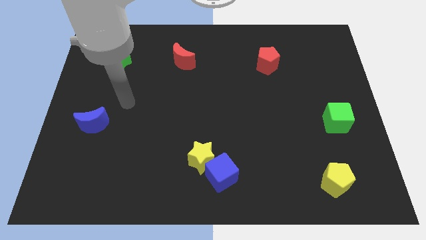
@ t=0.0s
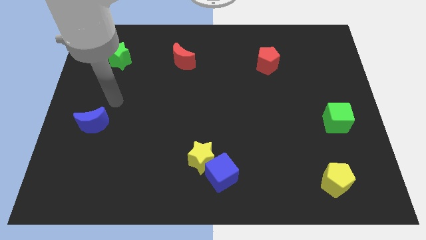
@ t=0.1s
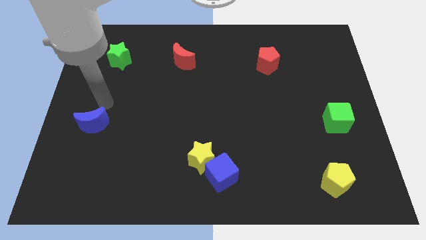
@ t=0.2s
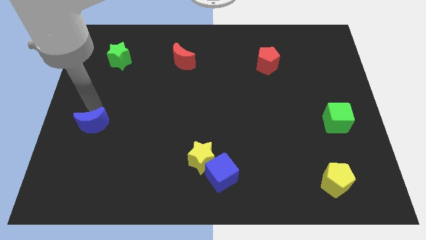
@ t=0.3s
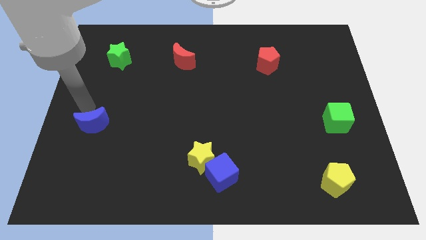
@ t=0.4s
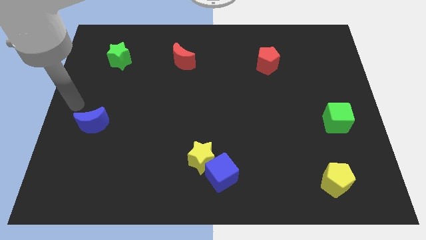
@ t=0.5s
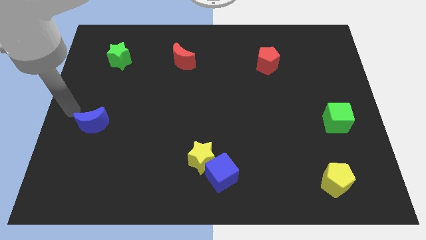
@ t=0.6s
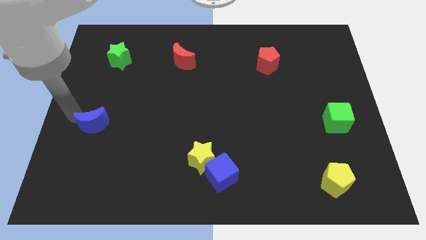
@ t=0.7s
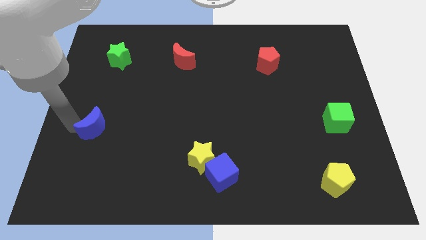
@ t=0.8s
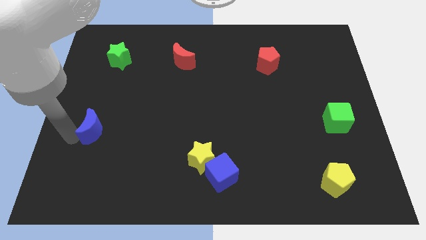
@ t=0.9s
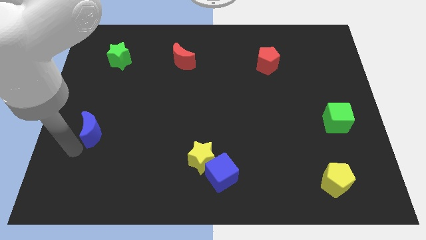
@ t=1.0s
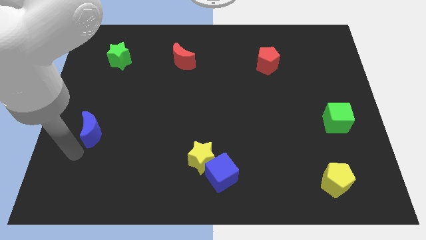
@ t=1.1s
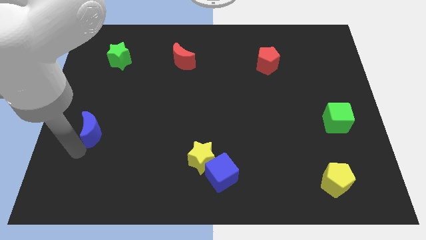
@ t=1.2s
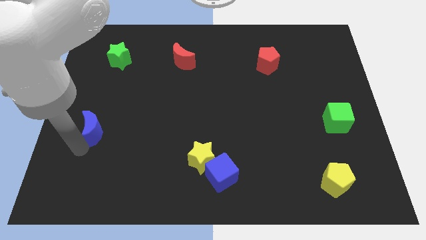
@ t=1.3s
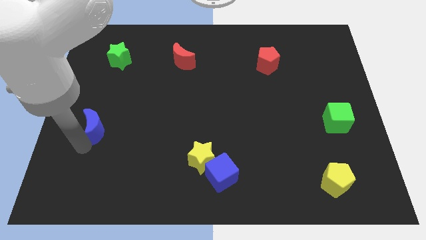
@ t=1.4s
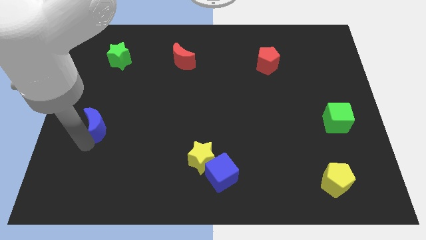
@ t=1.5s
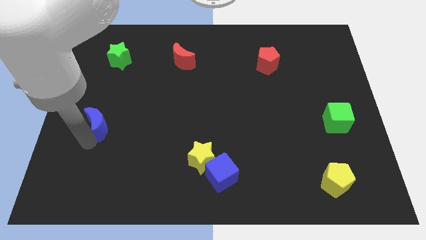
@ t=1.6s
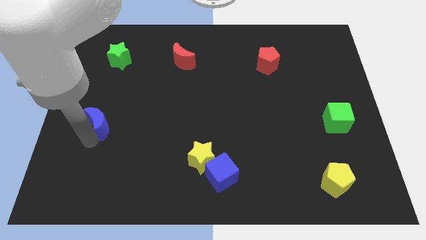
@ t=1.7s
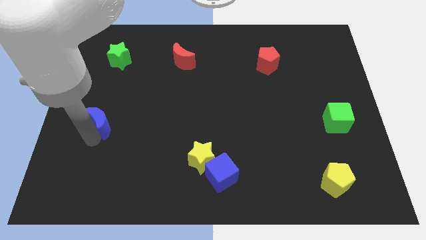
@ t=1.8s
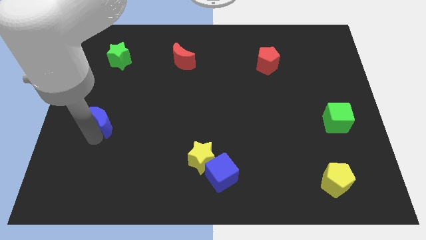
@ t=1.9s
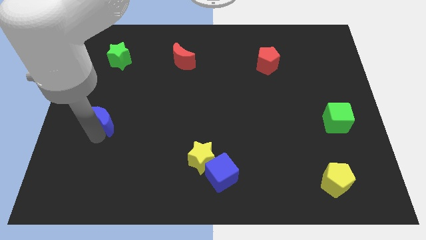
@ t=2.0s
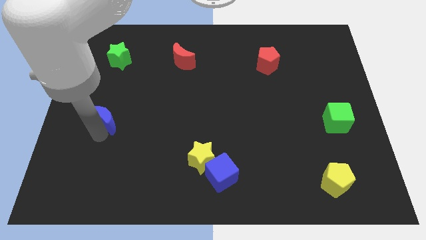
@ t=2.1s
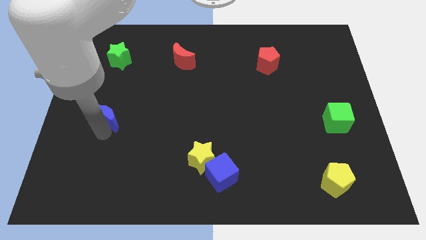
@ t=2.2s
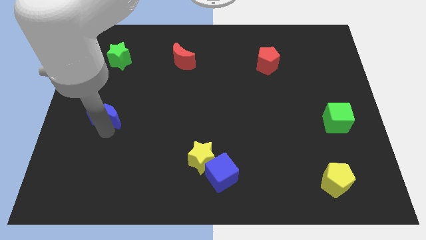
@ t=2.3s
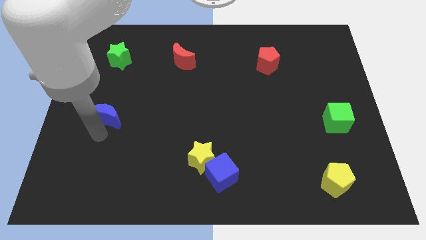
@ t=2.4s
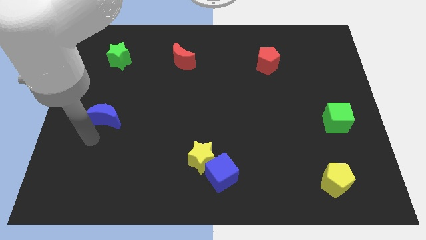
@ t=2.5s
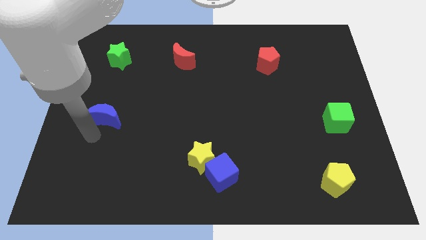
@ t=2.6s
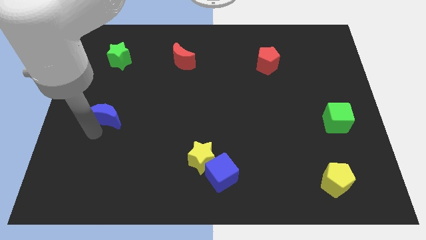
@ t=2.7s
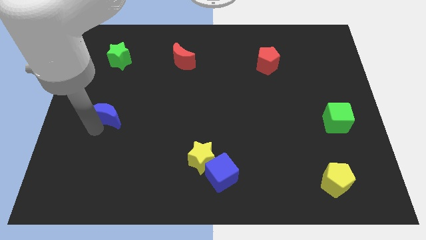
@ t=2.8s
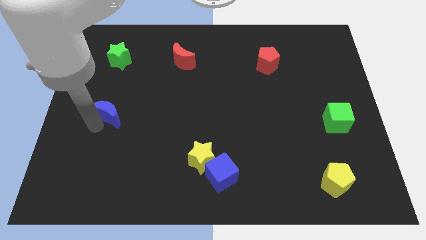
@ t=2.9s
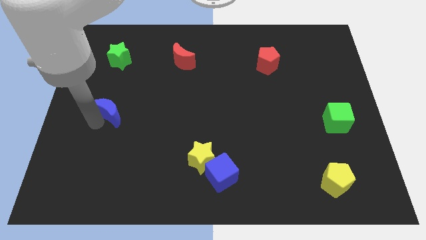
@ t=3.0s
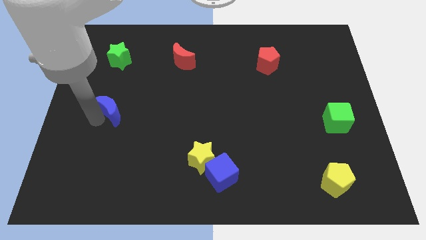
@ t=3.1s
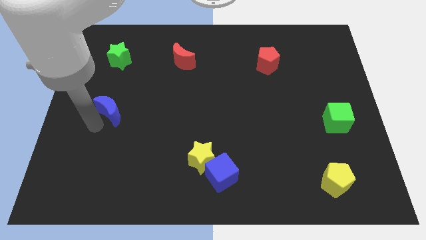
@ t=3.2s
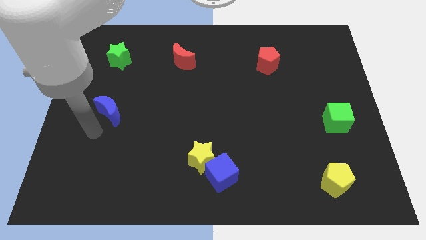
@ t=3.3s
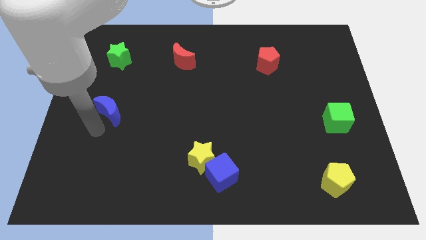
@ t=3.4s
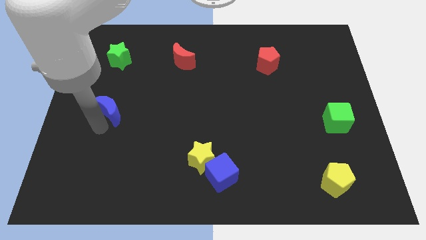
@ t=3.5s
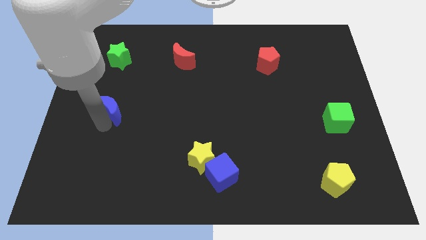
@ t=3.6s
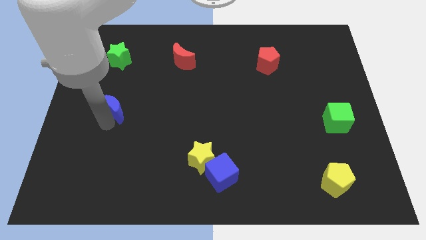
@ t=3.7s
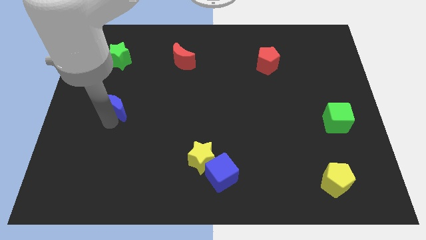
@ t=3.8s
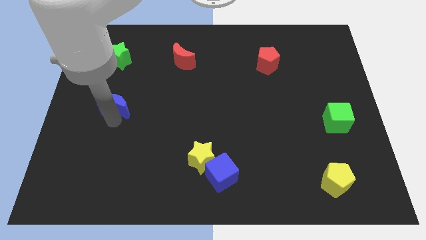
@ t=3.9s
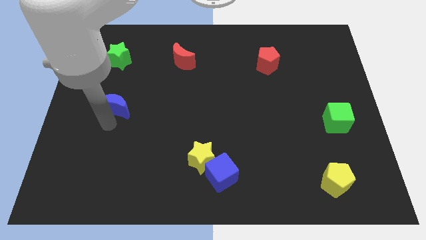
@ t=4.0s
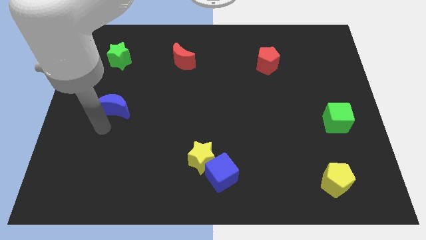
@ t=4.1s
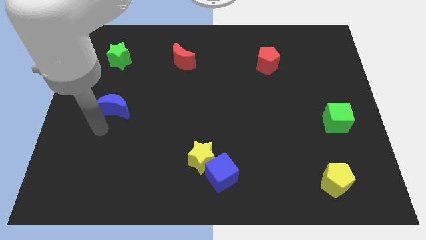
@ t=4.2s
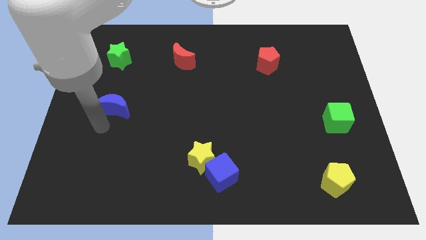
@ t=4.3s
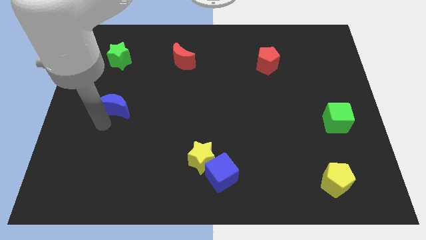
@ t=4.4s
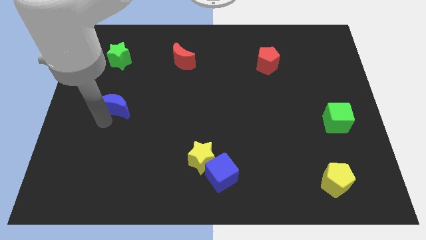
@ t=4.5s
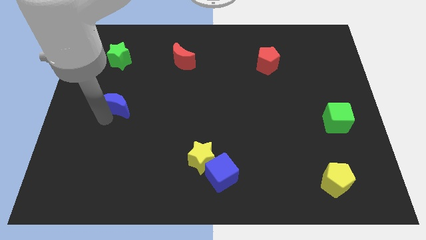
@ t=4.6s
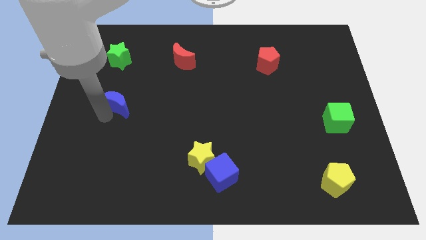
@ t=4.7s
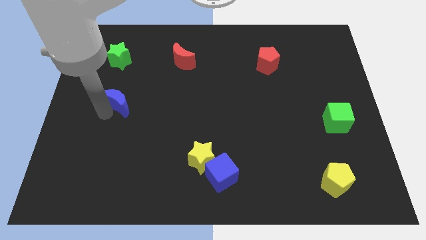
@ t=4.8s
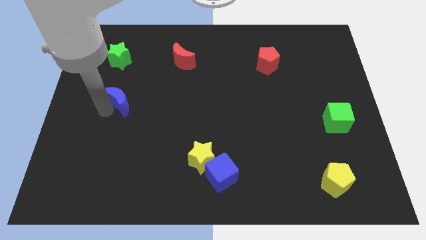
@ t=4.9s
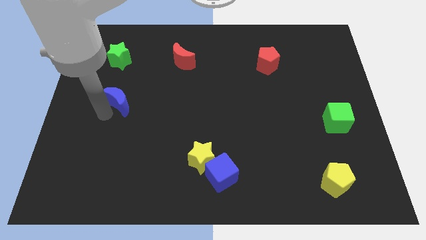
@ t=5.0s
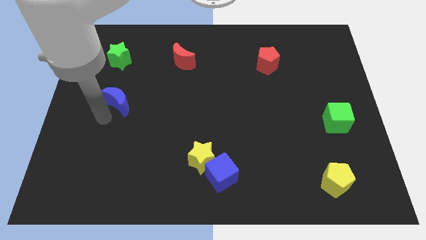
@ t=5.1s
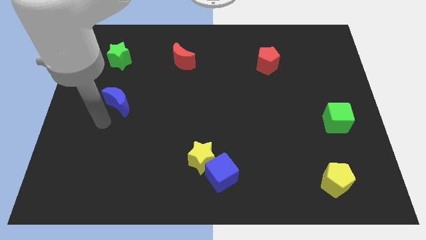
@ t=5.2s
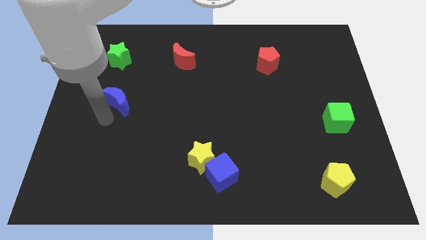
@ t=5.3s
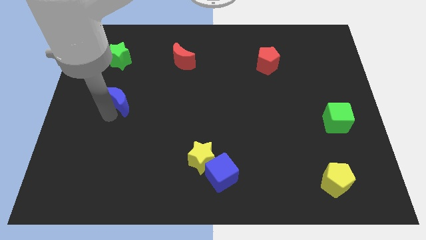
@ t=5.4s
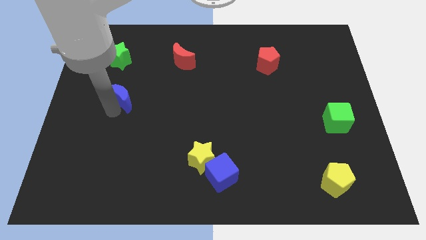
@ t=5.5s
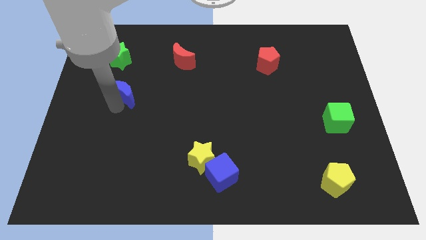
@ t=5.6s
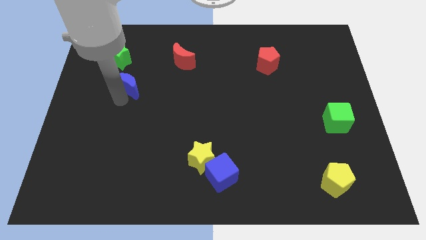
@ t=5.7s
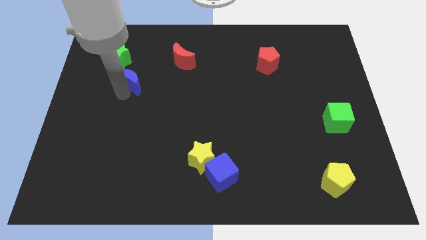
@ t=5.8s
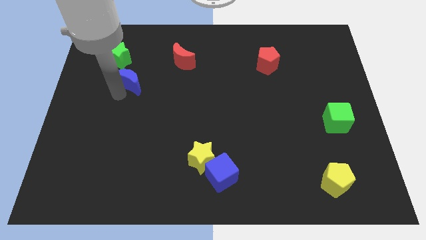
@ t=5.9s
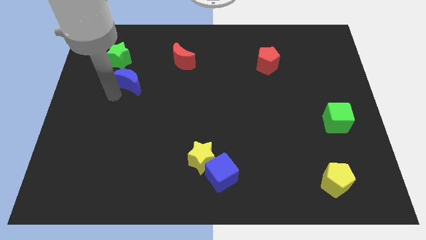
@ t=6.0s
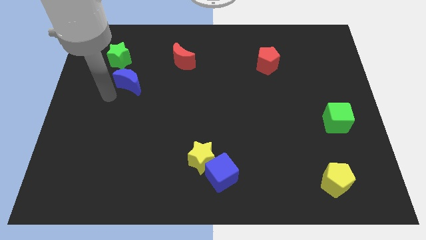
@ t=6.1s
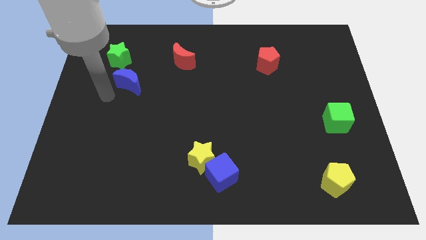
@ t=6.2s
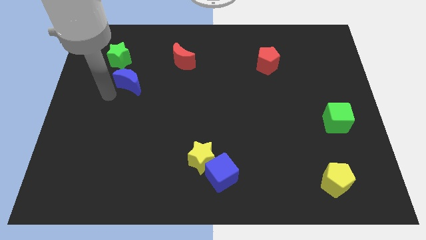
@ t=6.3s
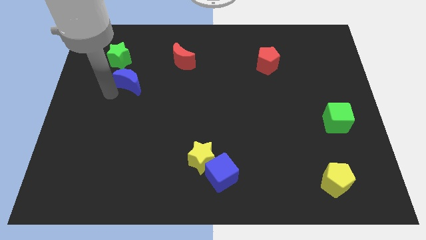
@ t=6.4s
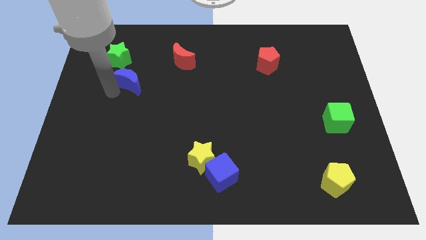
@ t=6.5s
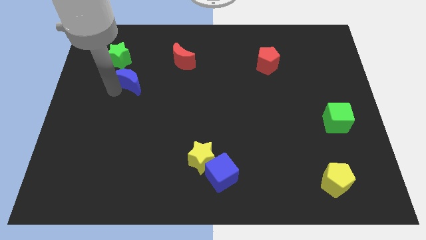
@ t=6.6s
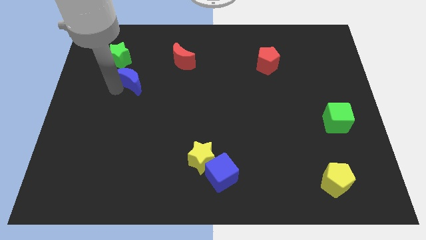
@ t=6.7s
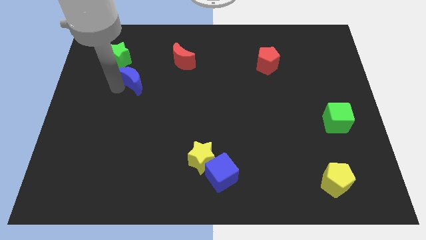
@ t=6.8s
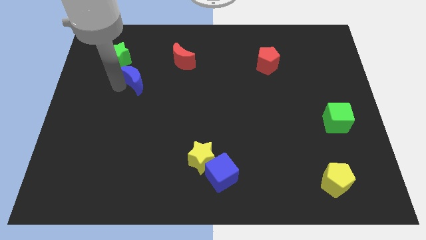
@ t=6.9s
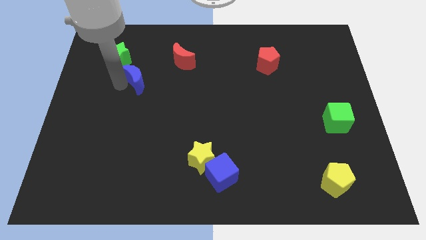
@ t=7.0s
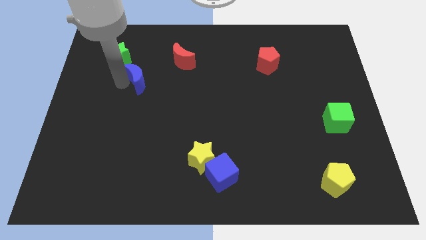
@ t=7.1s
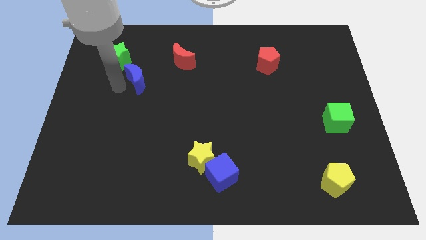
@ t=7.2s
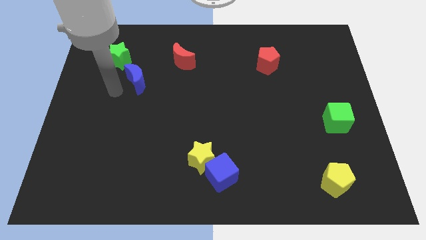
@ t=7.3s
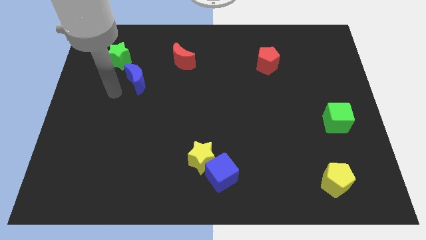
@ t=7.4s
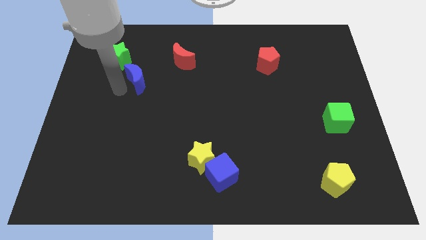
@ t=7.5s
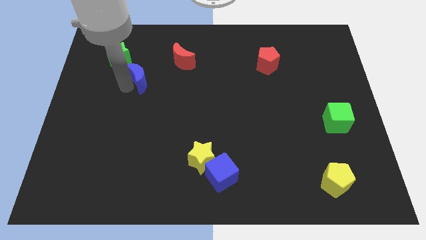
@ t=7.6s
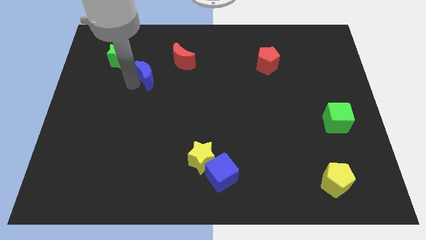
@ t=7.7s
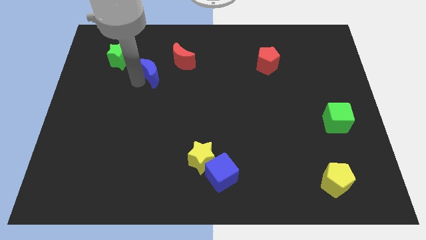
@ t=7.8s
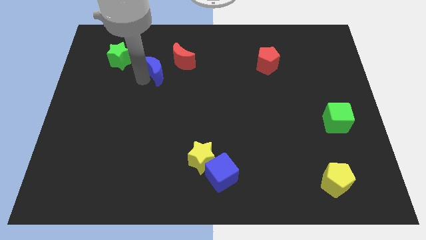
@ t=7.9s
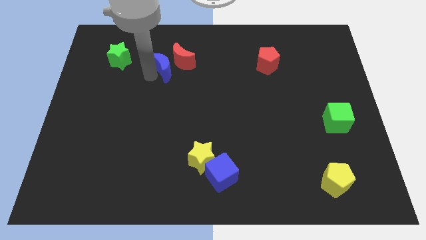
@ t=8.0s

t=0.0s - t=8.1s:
put the blue moon towards the red moon
